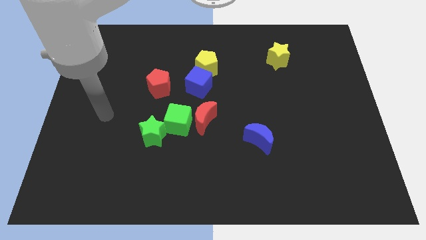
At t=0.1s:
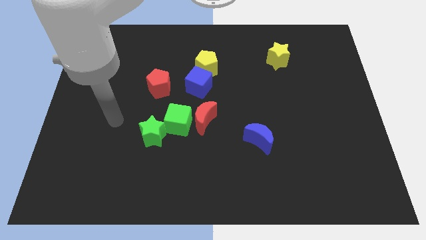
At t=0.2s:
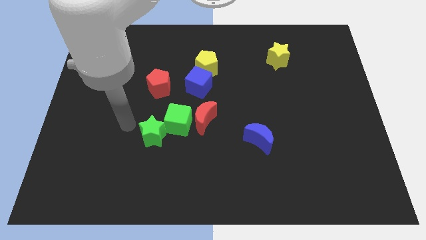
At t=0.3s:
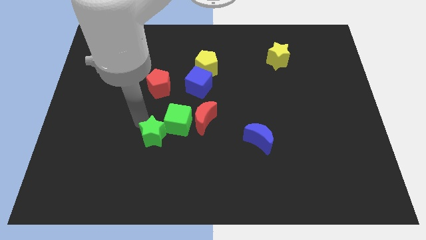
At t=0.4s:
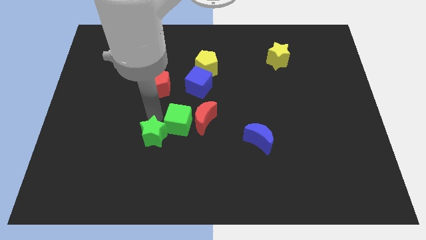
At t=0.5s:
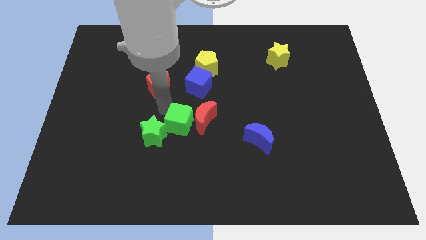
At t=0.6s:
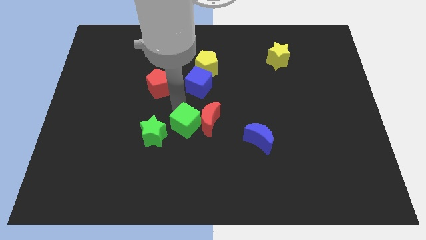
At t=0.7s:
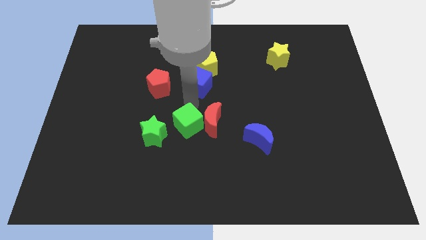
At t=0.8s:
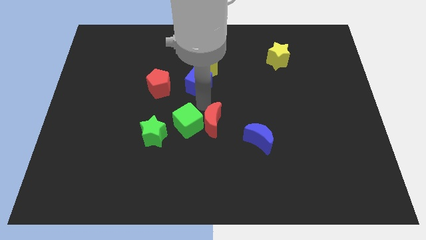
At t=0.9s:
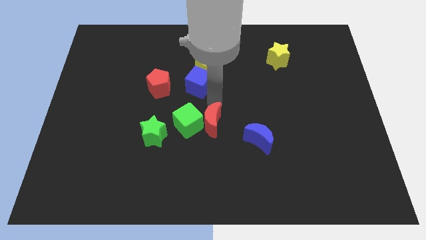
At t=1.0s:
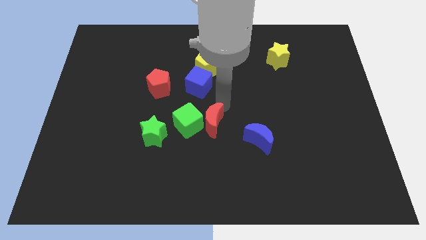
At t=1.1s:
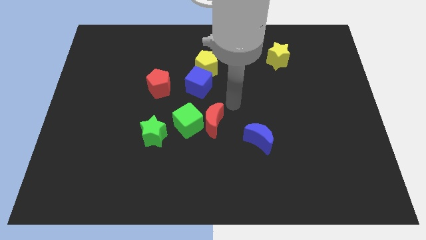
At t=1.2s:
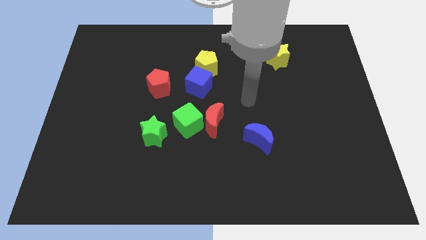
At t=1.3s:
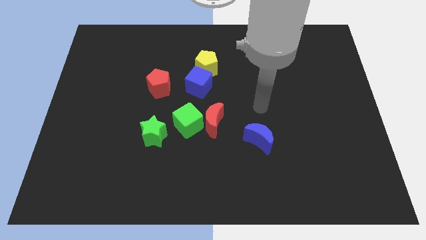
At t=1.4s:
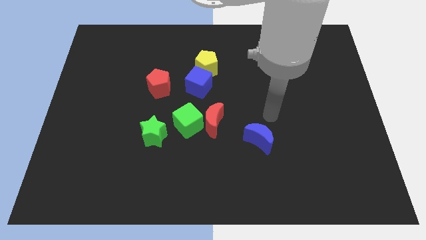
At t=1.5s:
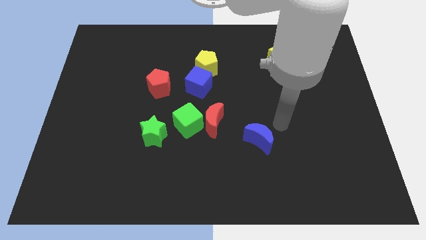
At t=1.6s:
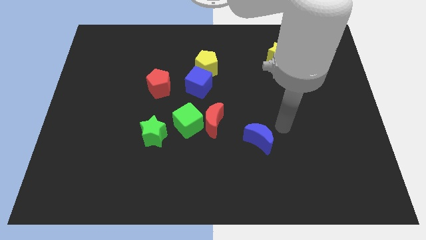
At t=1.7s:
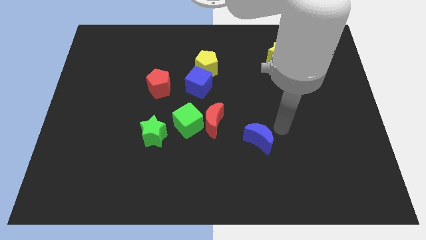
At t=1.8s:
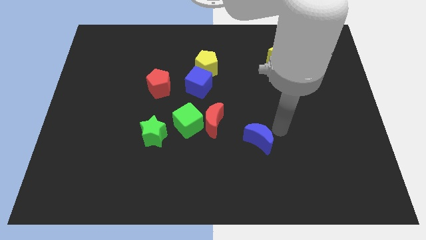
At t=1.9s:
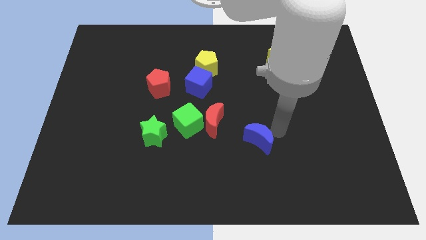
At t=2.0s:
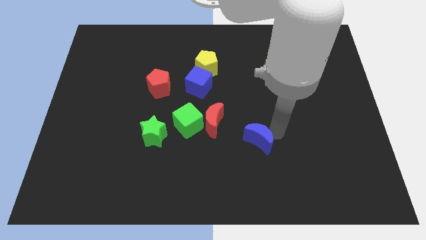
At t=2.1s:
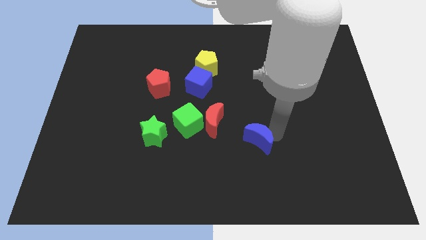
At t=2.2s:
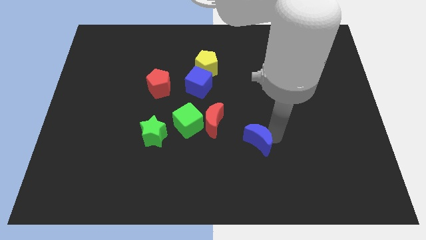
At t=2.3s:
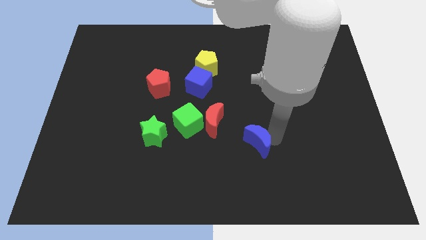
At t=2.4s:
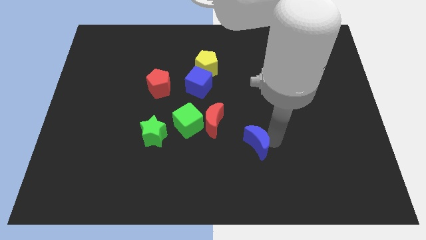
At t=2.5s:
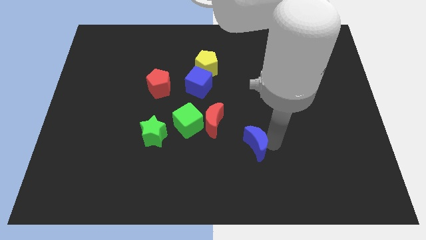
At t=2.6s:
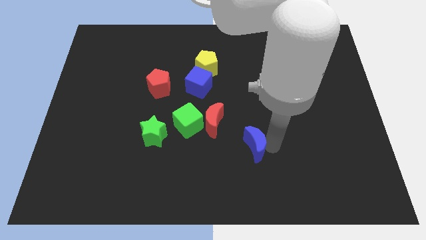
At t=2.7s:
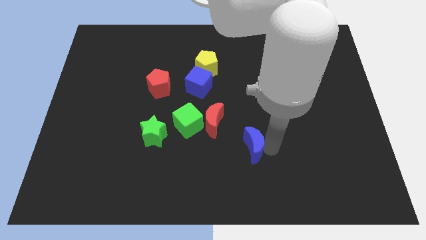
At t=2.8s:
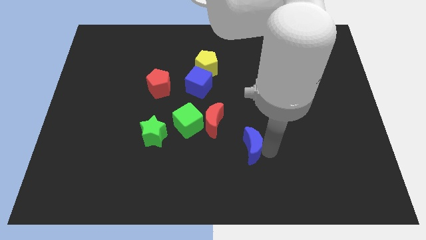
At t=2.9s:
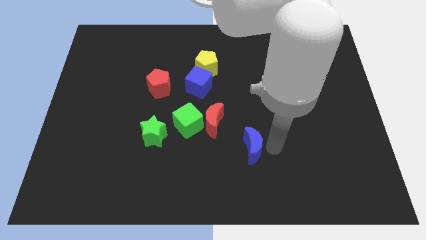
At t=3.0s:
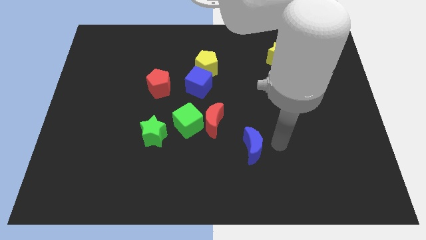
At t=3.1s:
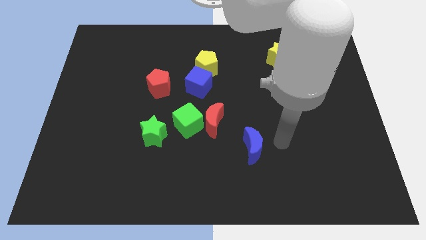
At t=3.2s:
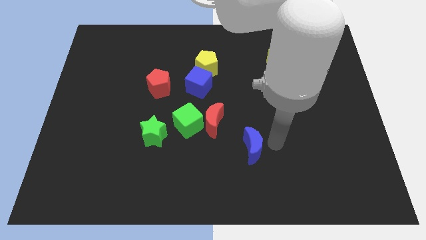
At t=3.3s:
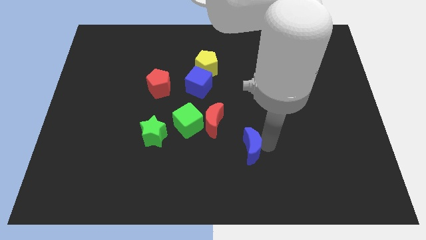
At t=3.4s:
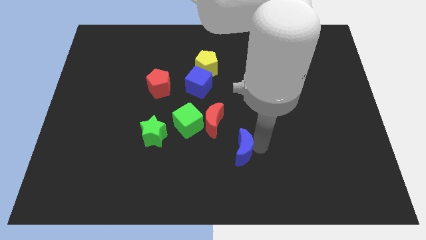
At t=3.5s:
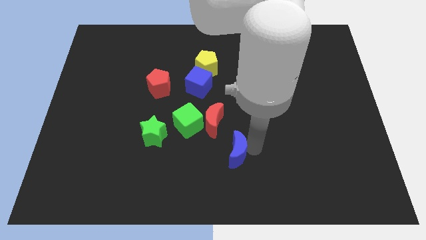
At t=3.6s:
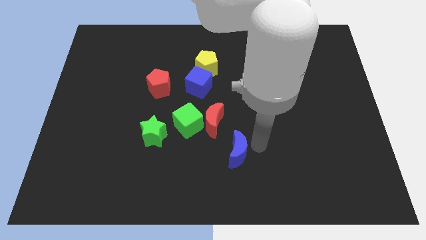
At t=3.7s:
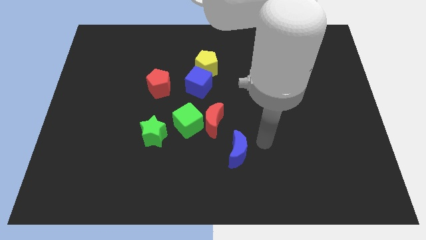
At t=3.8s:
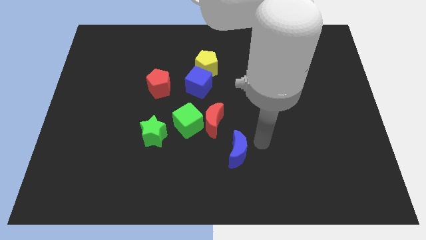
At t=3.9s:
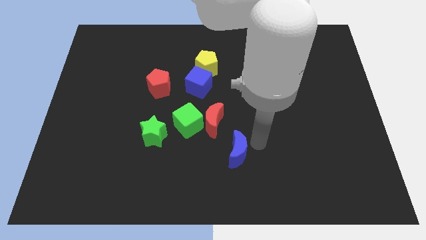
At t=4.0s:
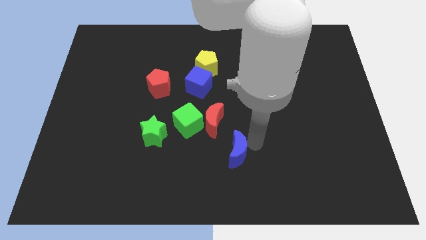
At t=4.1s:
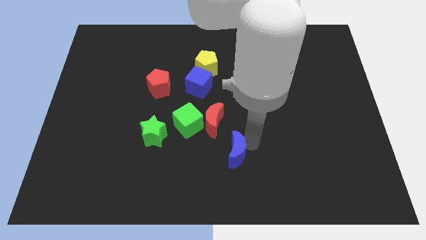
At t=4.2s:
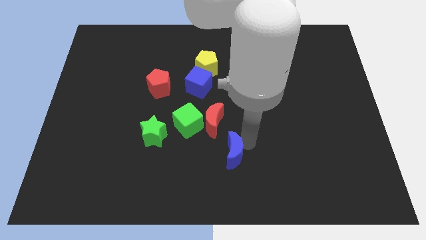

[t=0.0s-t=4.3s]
slide the blue moon to the bottom of the red moon

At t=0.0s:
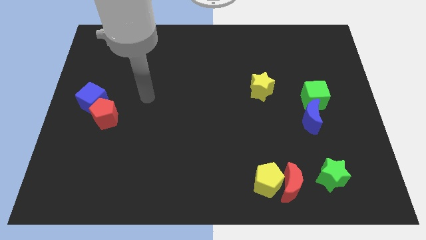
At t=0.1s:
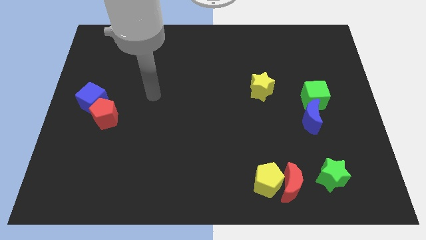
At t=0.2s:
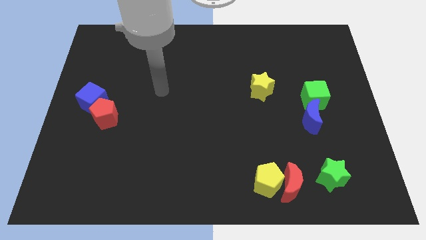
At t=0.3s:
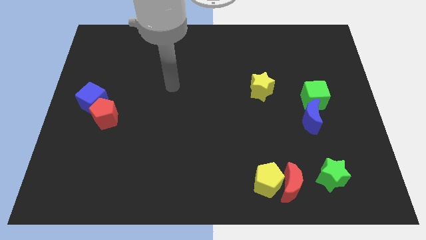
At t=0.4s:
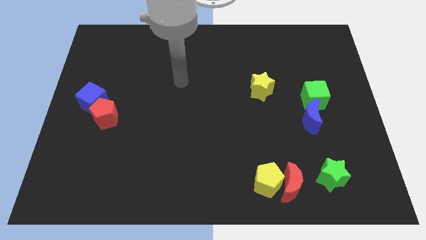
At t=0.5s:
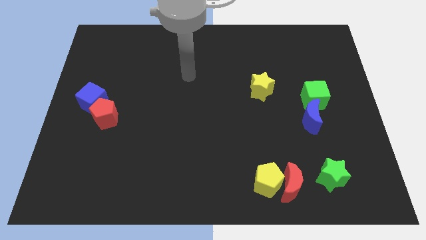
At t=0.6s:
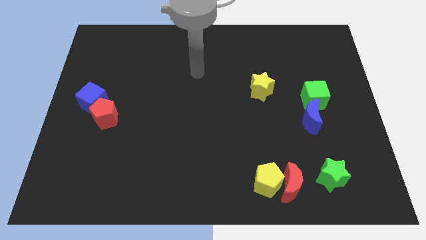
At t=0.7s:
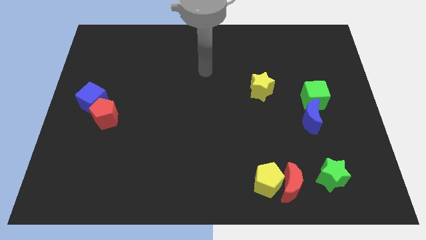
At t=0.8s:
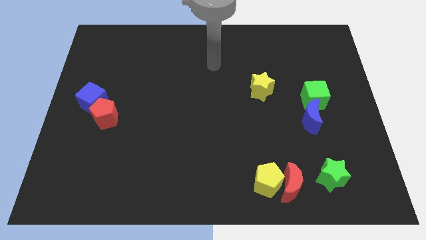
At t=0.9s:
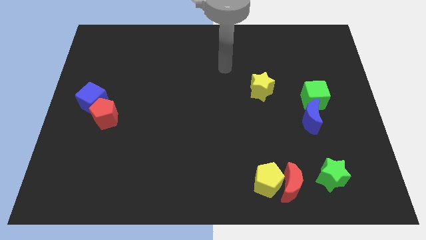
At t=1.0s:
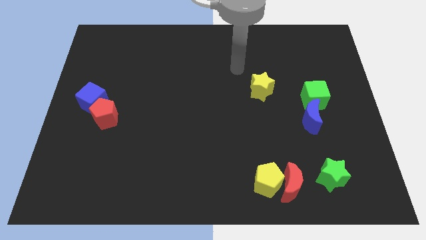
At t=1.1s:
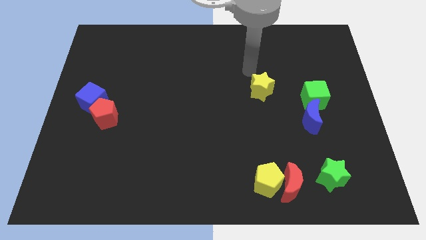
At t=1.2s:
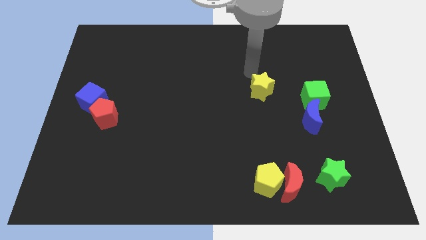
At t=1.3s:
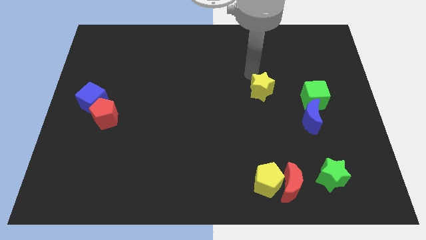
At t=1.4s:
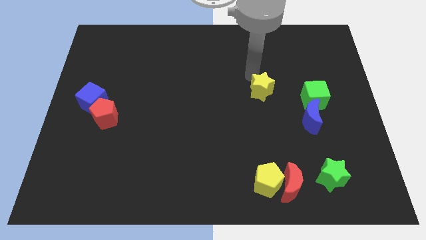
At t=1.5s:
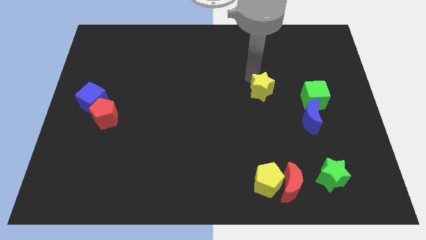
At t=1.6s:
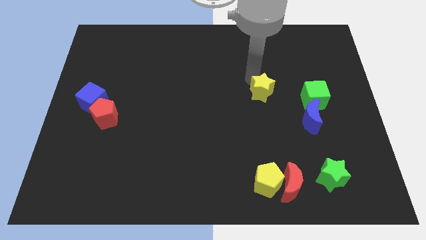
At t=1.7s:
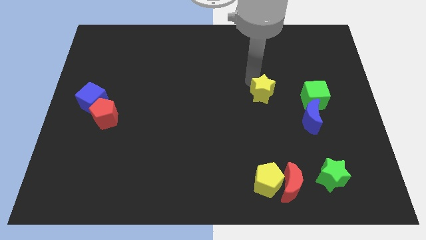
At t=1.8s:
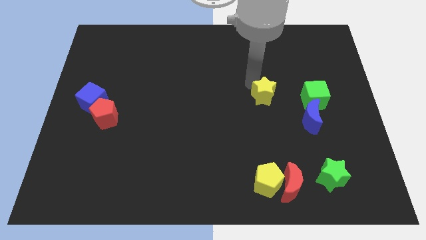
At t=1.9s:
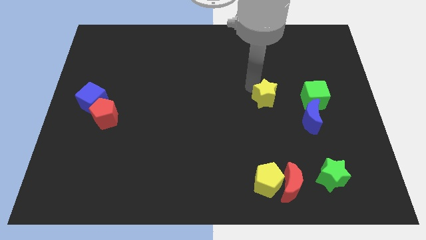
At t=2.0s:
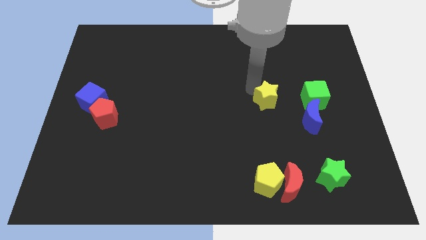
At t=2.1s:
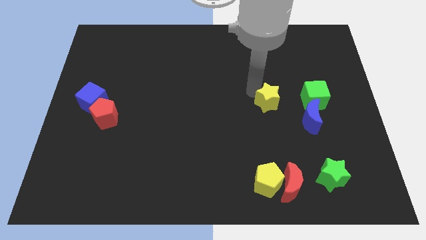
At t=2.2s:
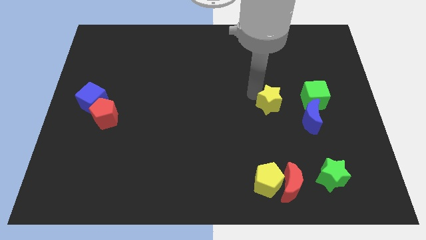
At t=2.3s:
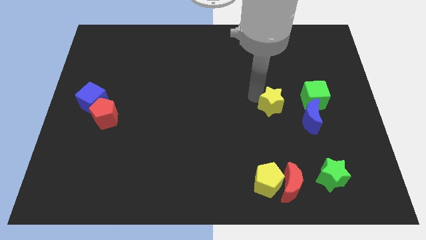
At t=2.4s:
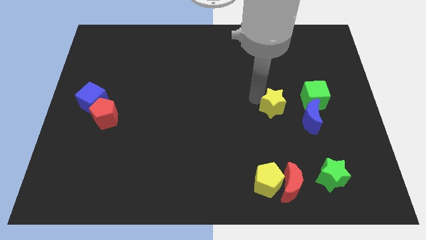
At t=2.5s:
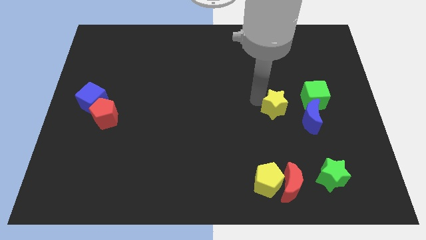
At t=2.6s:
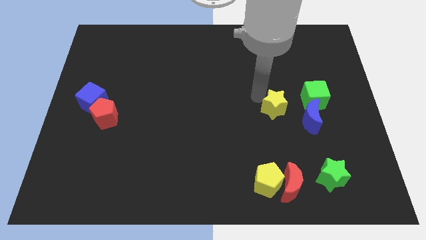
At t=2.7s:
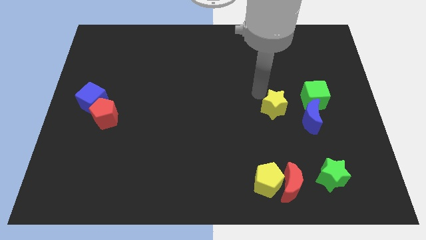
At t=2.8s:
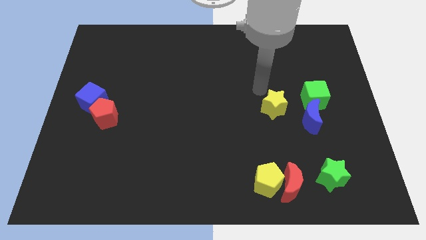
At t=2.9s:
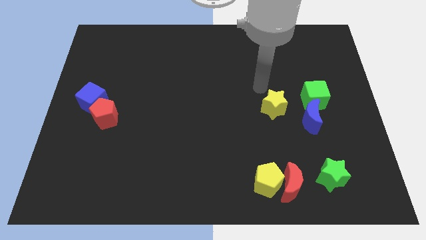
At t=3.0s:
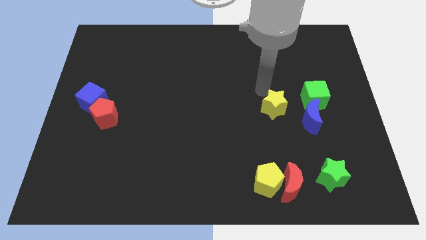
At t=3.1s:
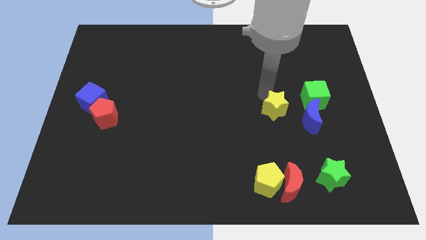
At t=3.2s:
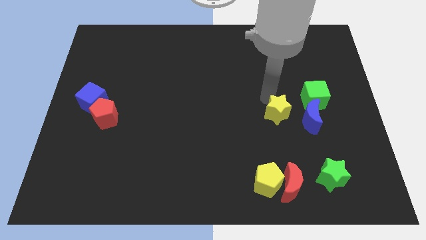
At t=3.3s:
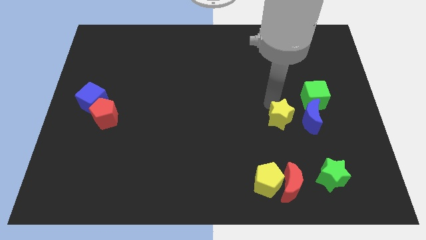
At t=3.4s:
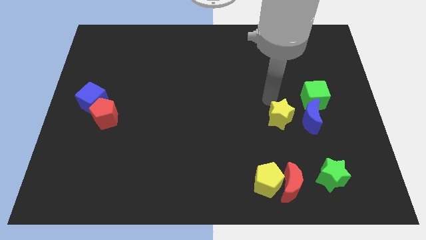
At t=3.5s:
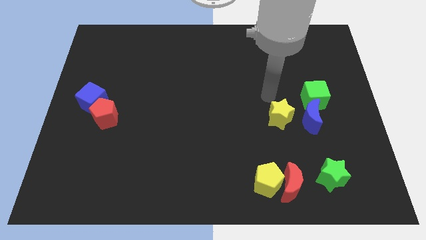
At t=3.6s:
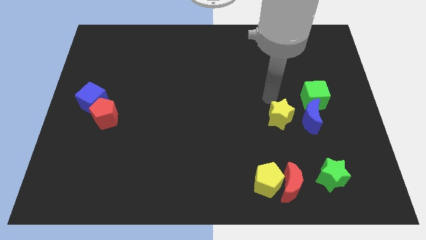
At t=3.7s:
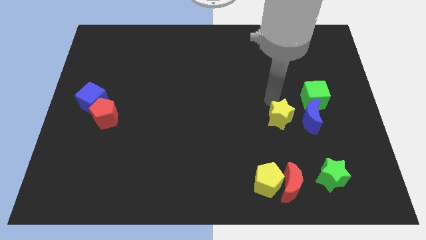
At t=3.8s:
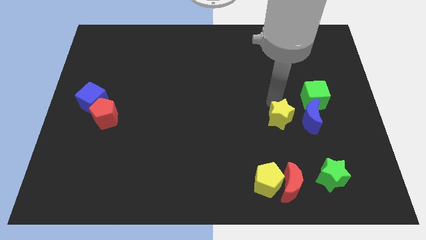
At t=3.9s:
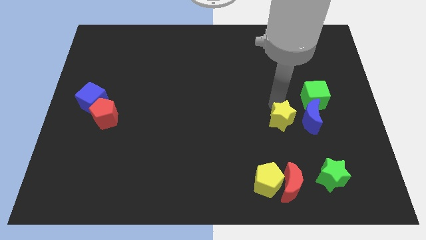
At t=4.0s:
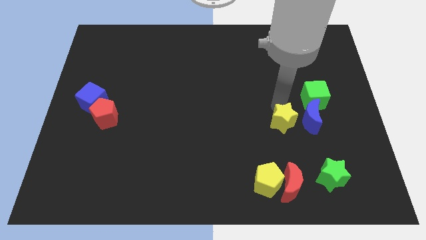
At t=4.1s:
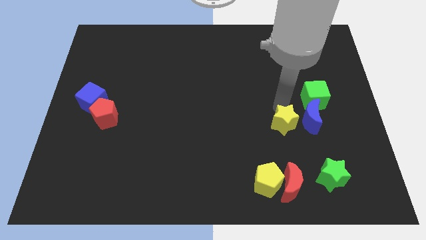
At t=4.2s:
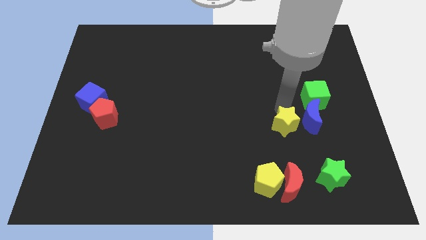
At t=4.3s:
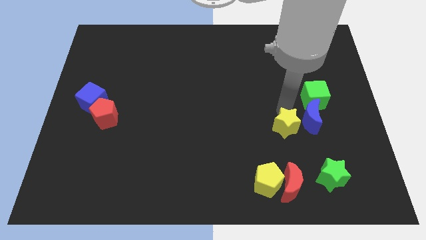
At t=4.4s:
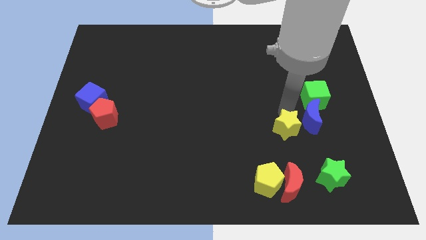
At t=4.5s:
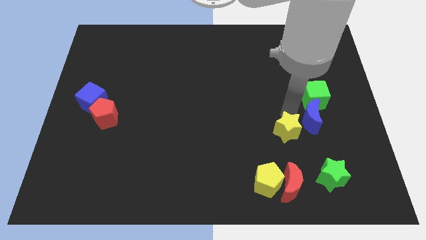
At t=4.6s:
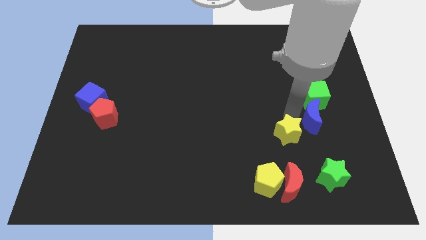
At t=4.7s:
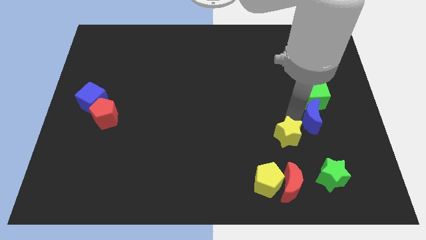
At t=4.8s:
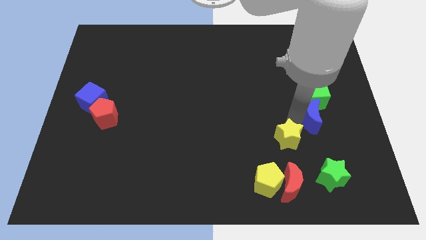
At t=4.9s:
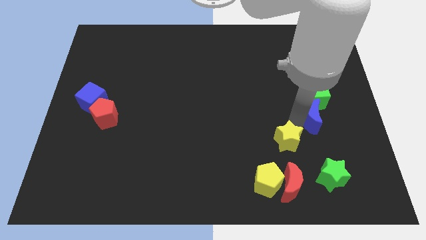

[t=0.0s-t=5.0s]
slide the yellow star to the top right of the yellow pentagon
